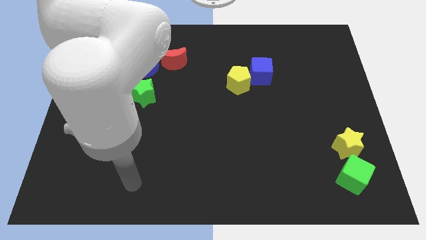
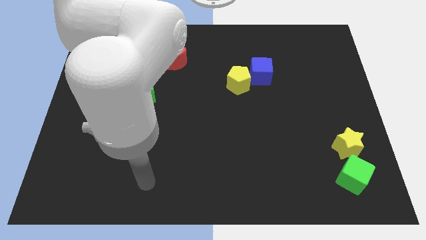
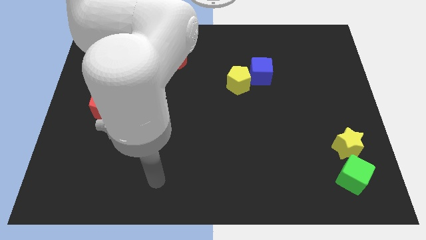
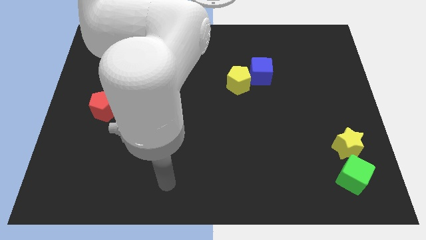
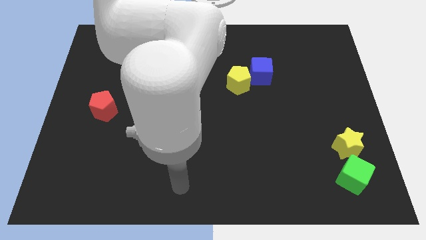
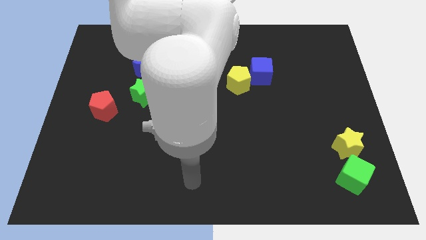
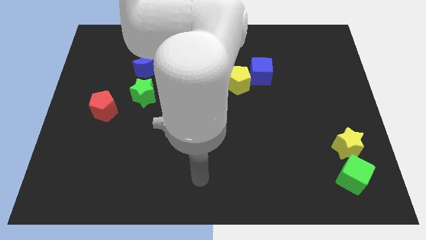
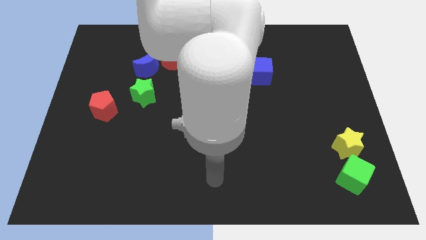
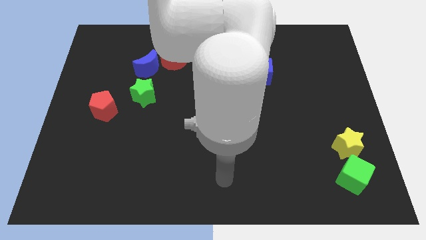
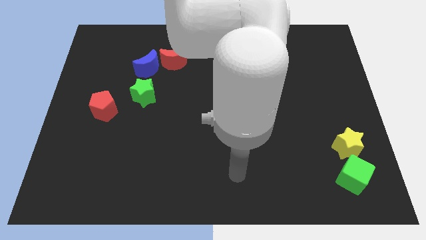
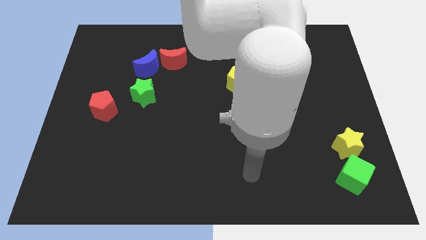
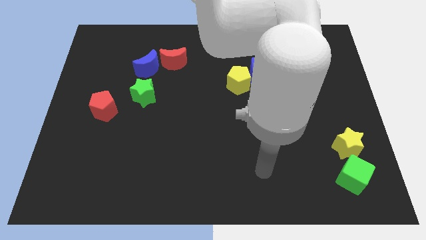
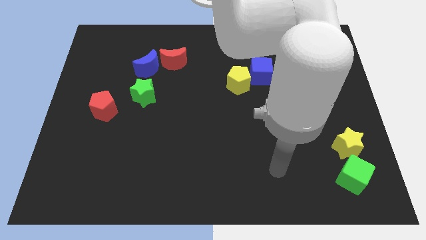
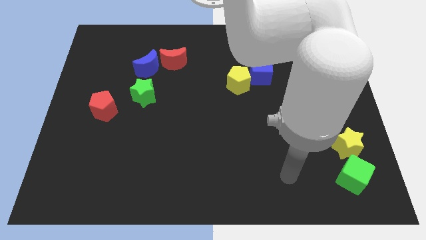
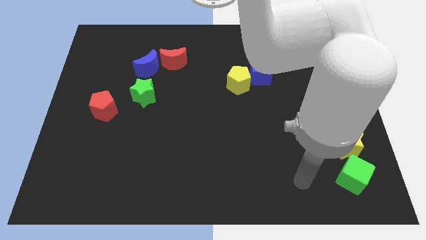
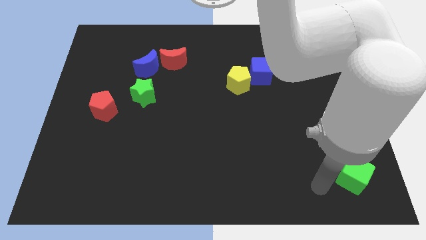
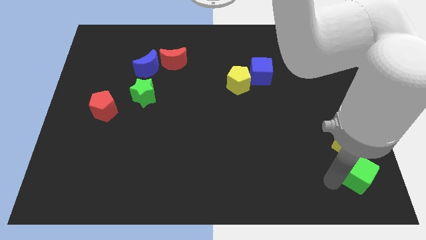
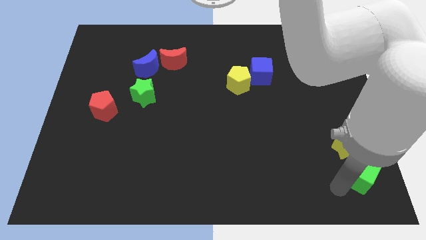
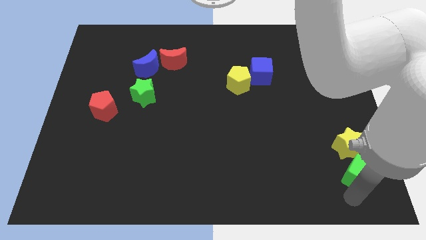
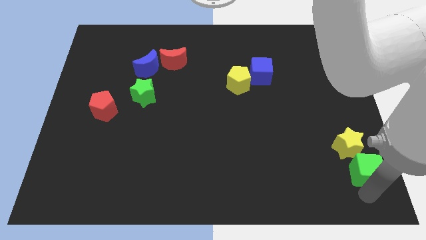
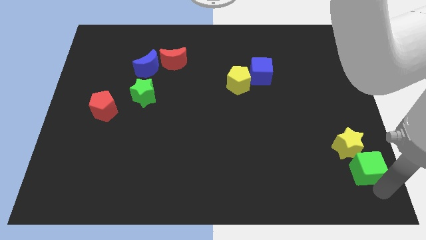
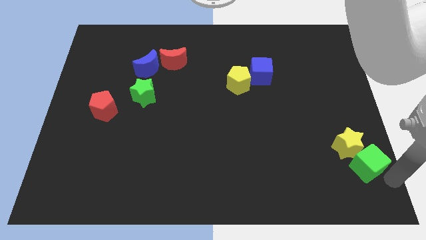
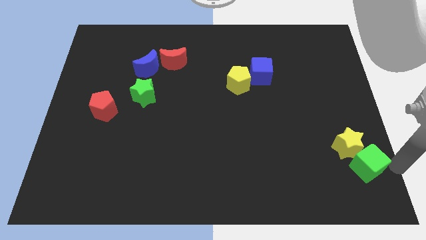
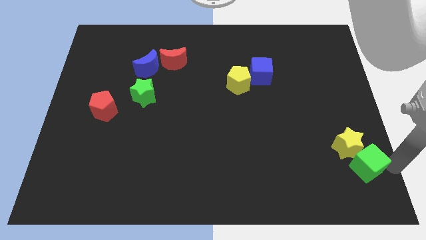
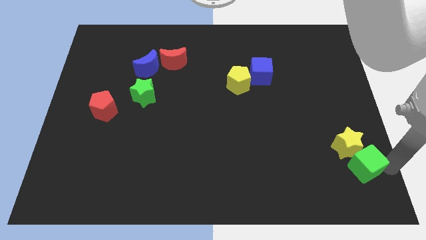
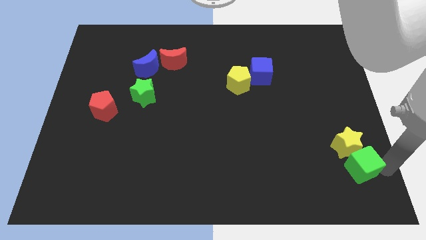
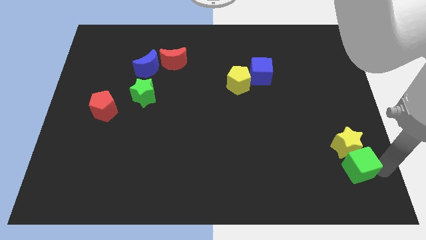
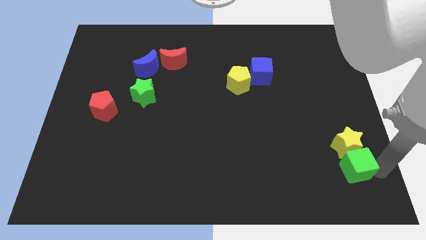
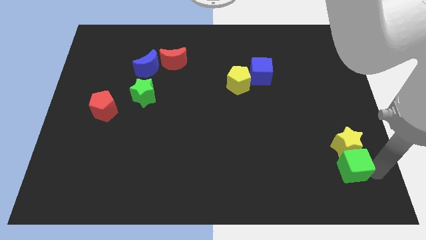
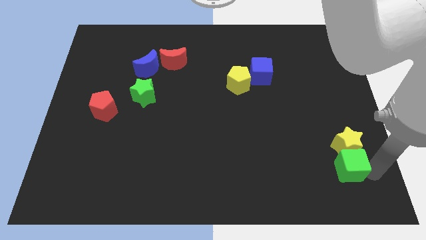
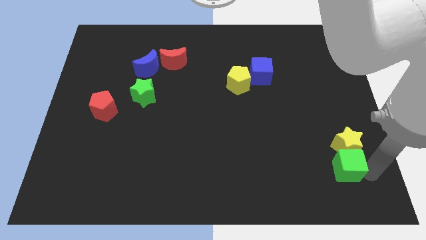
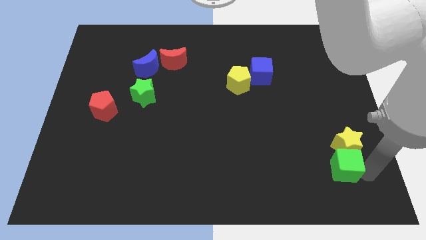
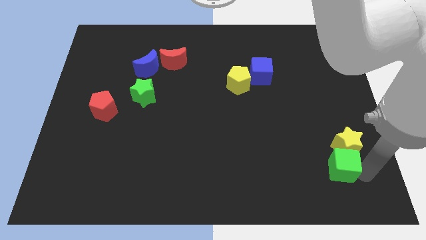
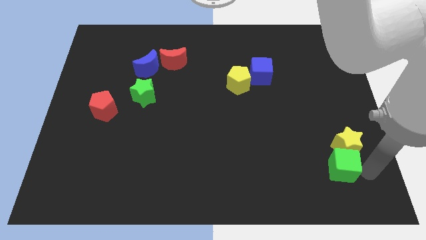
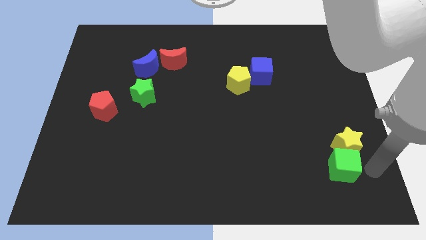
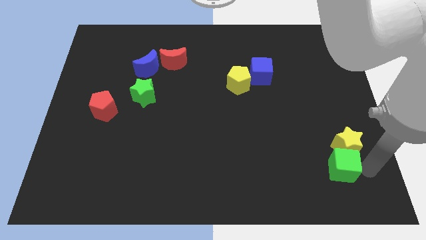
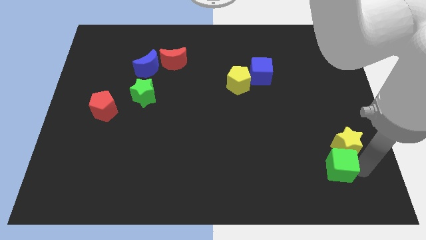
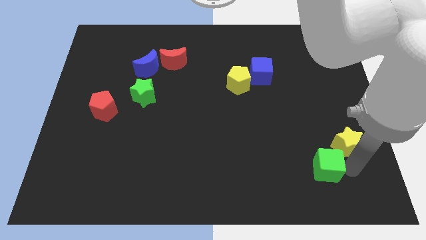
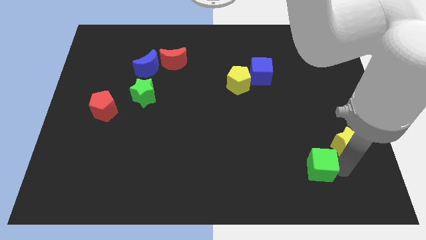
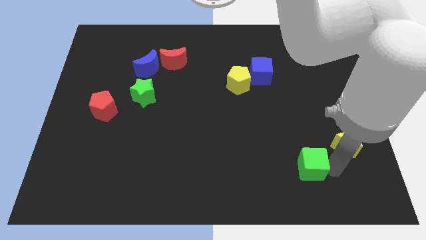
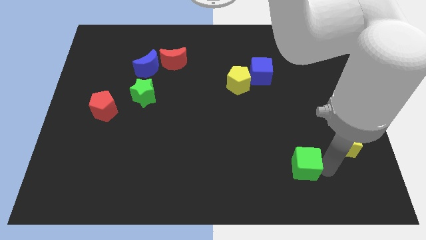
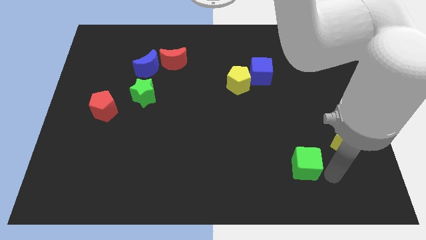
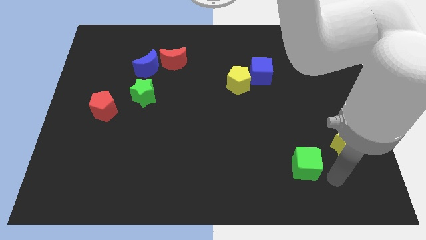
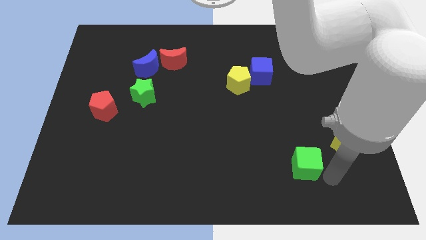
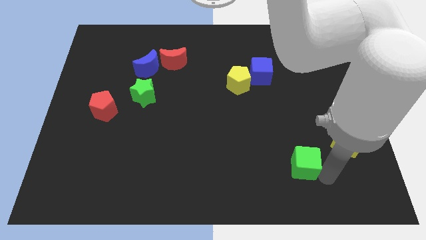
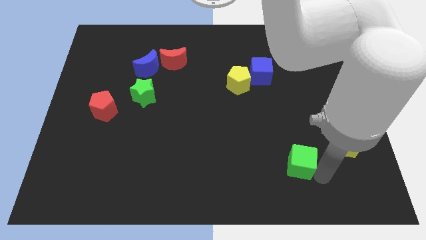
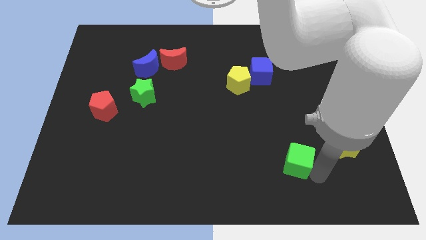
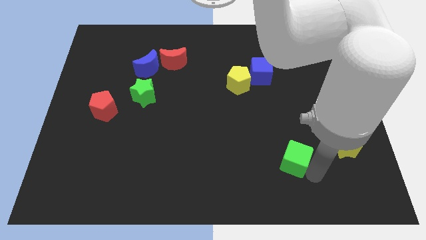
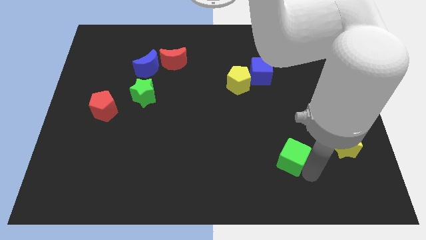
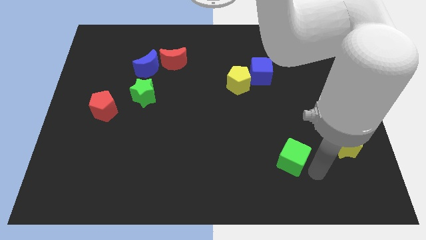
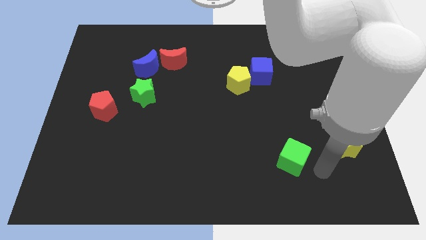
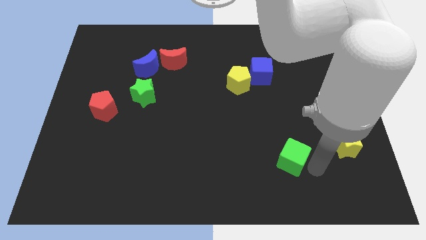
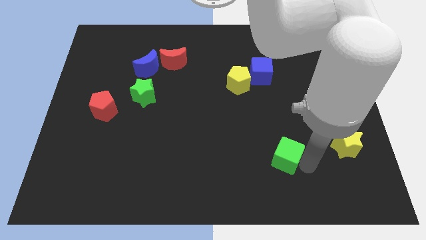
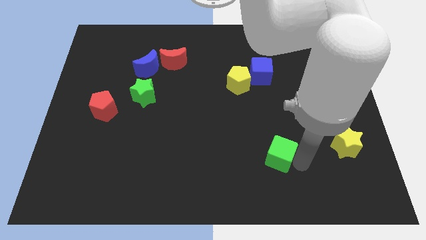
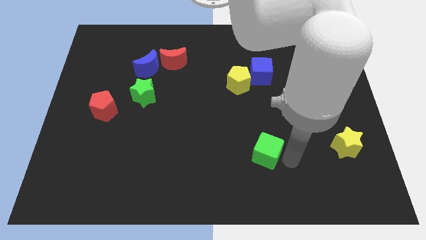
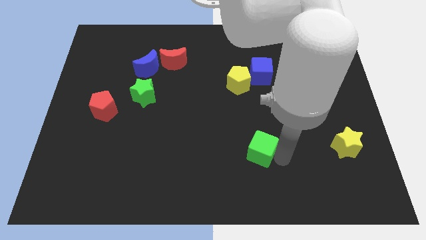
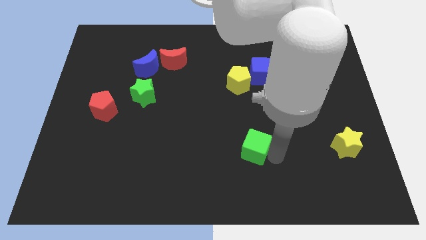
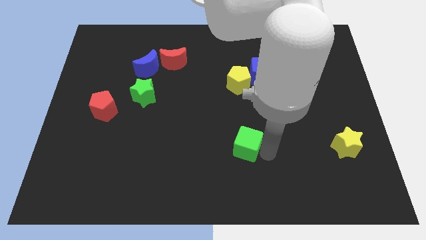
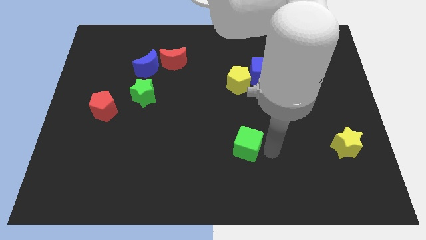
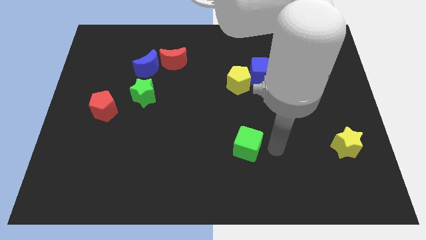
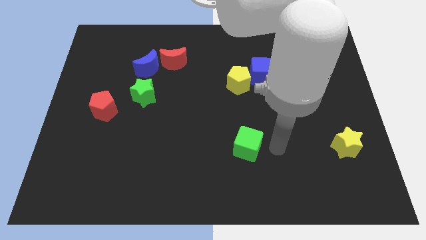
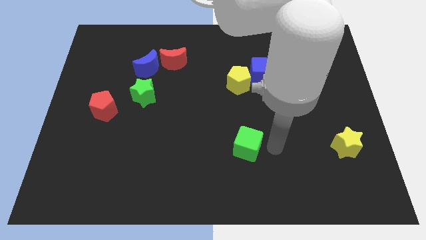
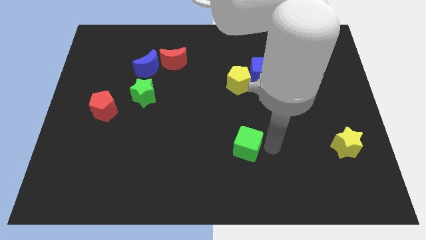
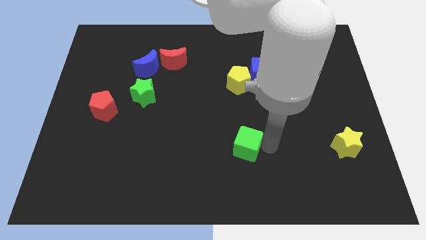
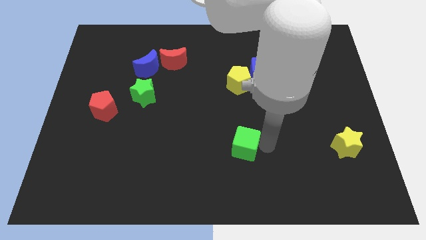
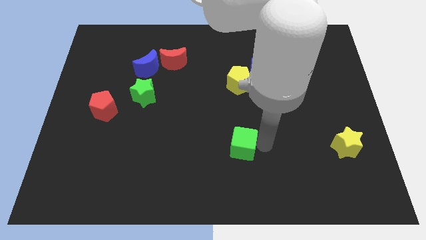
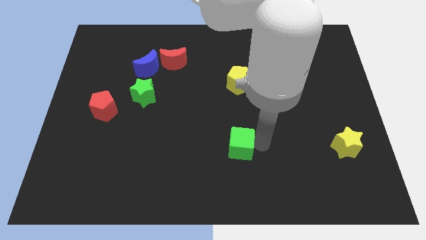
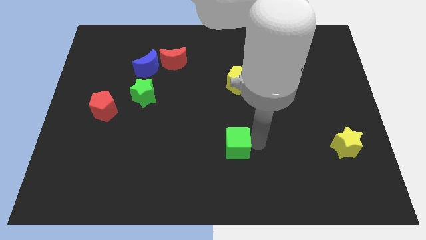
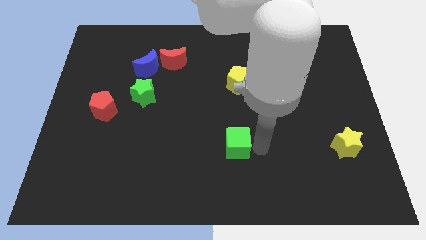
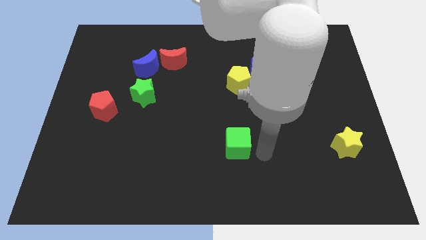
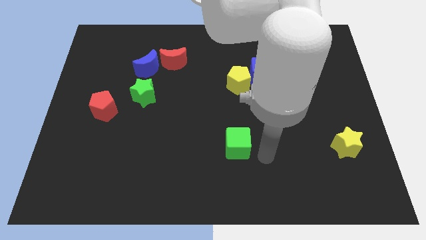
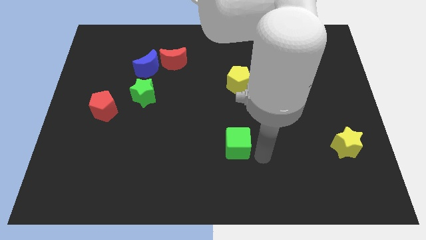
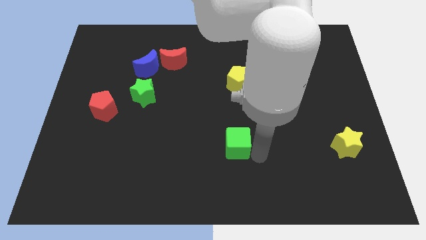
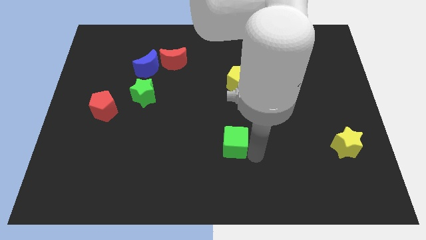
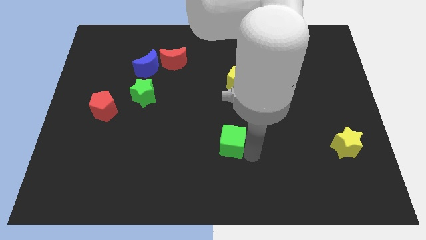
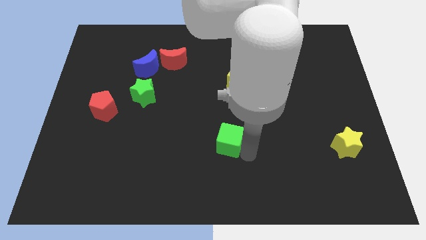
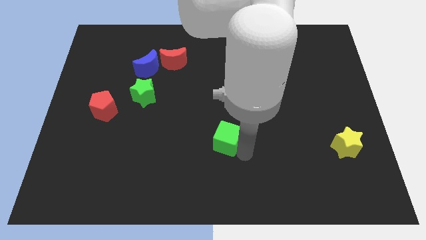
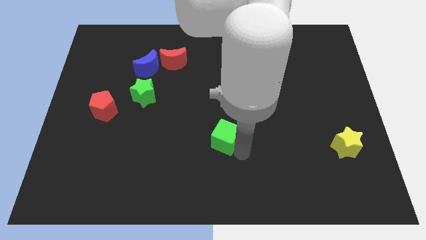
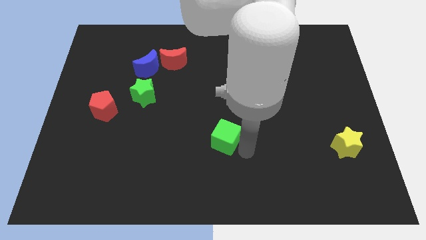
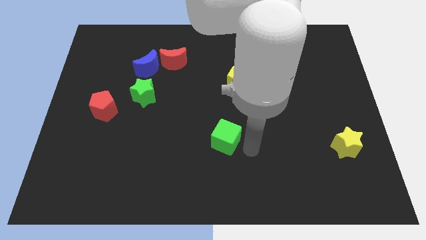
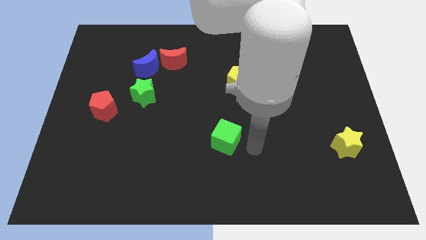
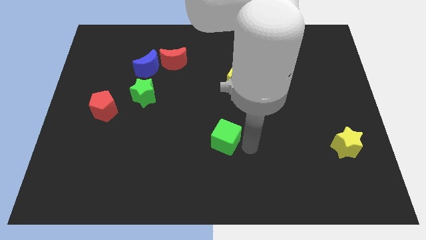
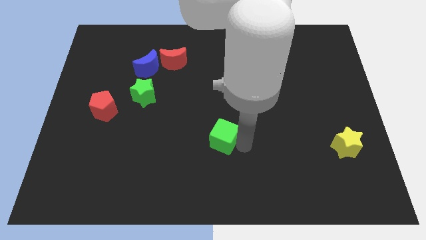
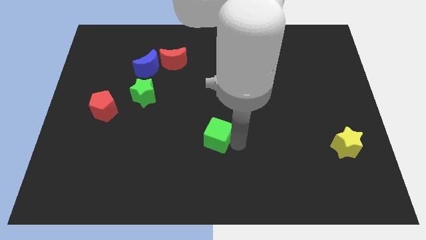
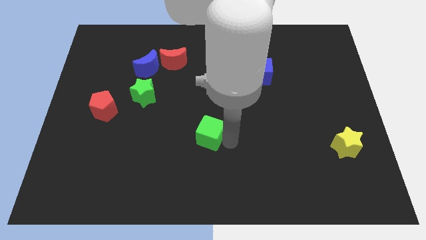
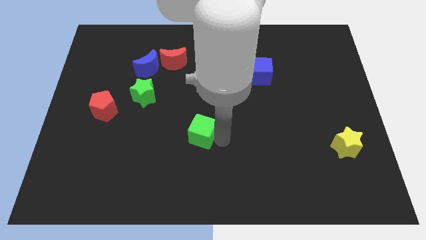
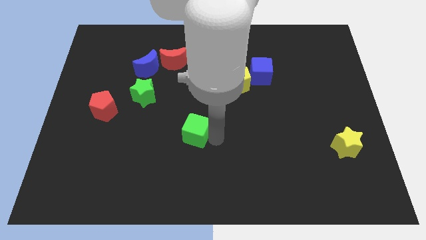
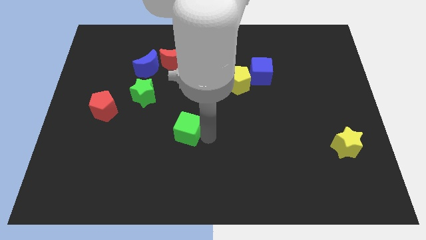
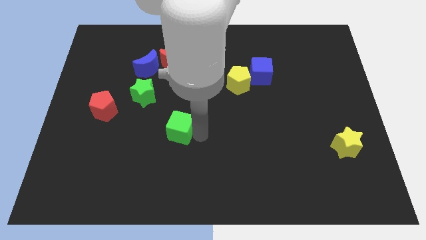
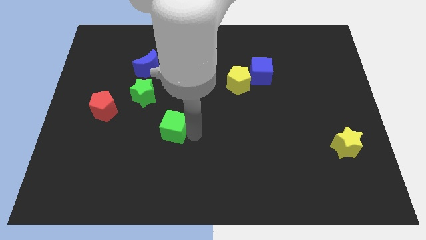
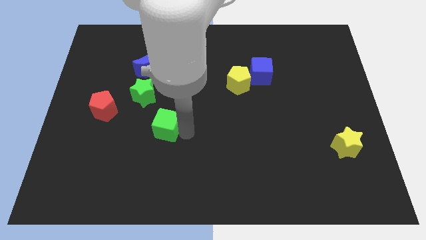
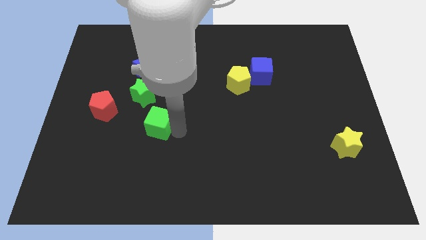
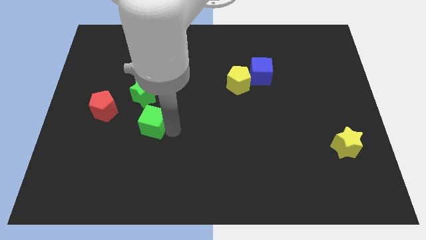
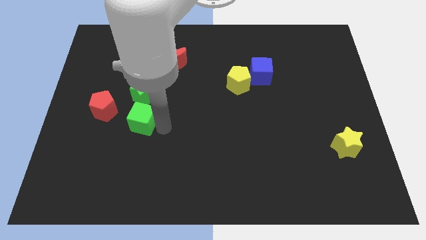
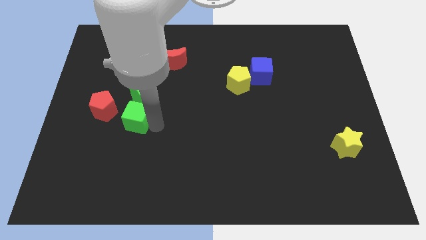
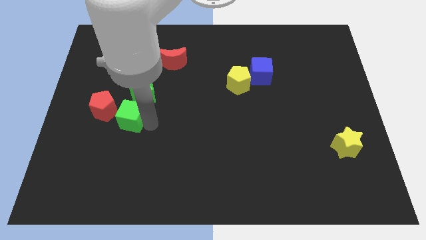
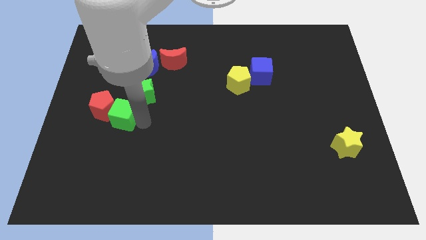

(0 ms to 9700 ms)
slide the green cube close to the red pentagon
